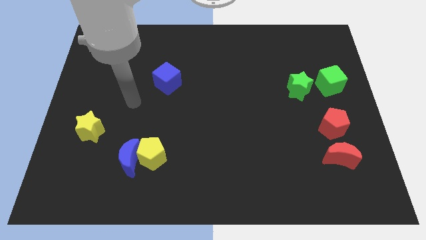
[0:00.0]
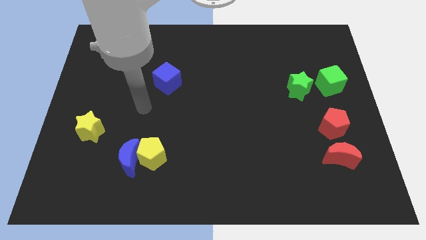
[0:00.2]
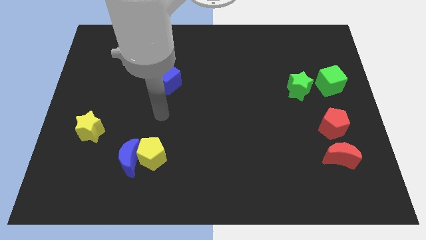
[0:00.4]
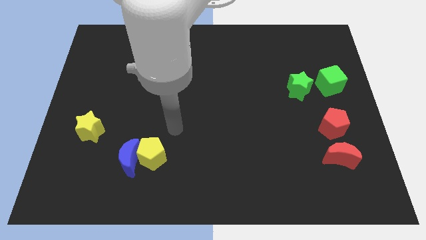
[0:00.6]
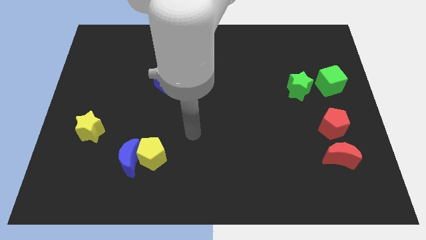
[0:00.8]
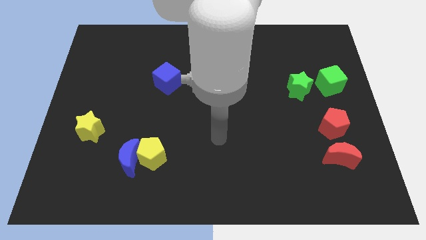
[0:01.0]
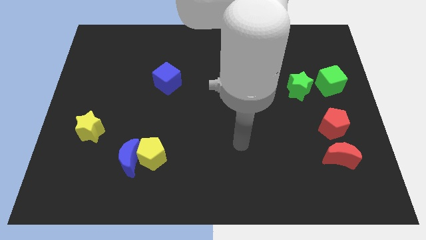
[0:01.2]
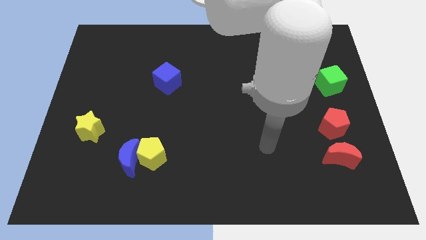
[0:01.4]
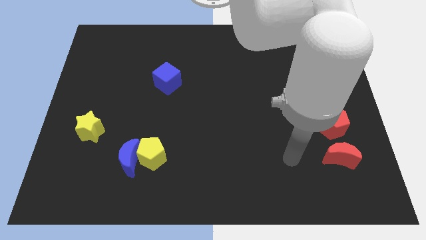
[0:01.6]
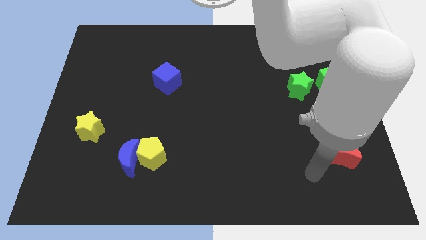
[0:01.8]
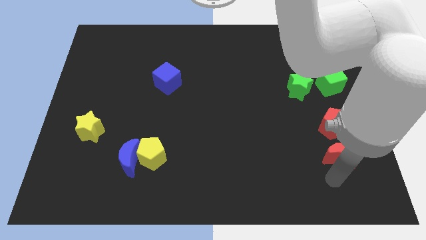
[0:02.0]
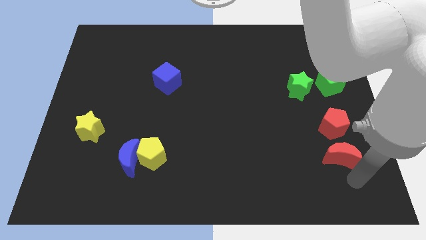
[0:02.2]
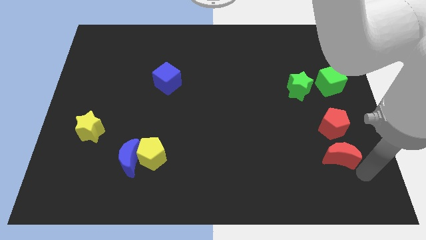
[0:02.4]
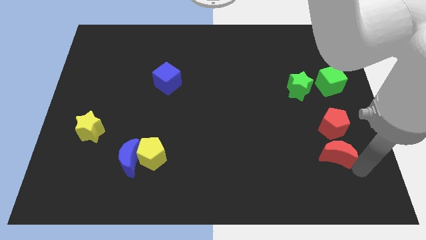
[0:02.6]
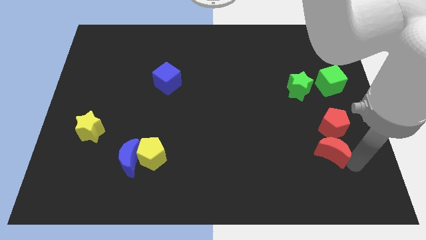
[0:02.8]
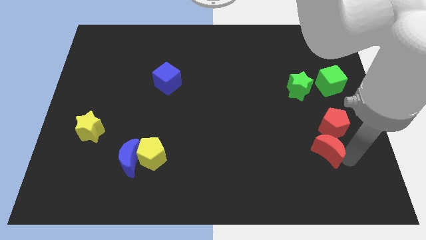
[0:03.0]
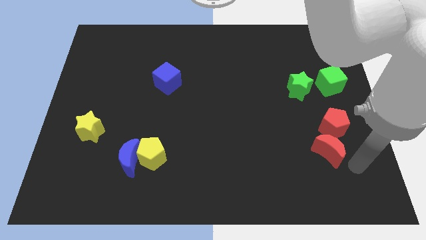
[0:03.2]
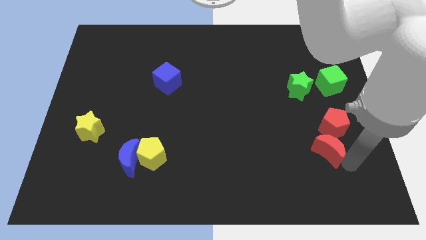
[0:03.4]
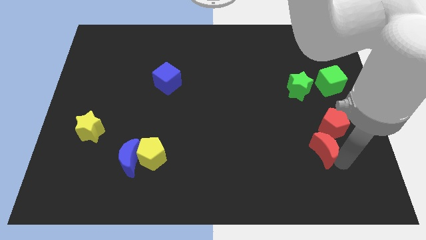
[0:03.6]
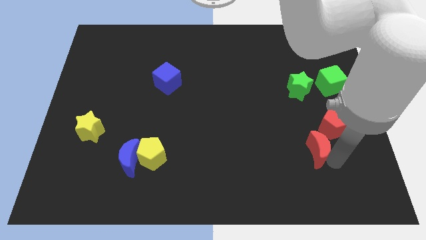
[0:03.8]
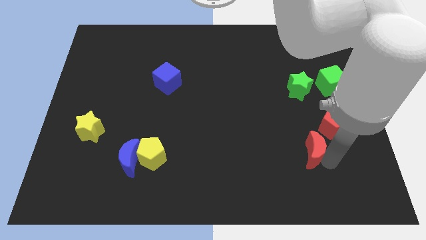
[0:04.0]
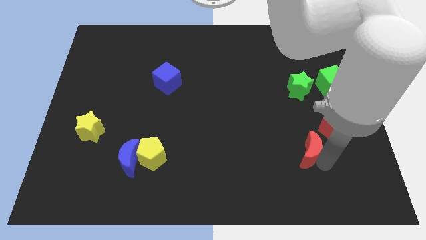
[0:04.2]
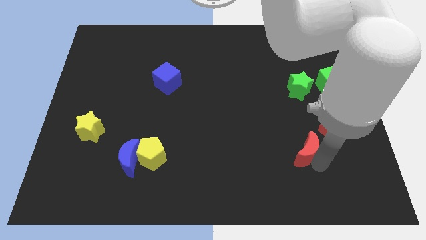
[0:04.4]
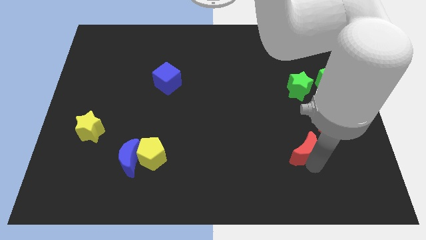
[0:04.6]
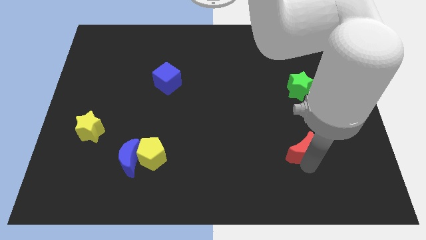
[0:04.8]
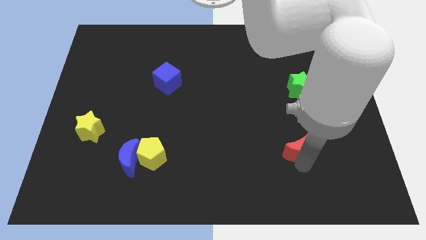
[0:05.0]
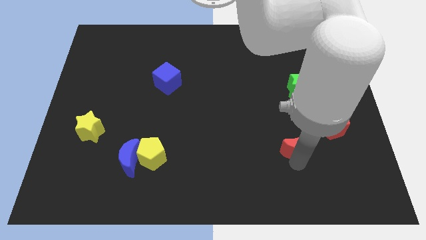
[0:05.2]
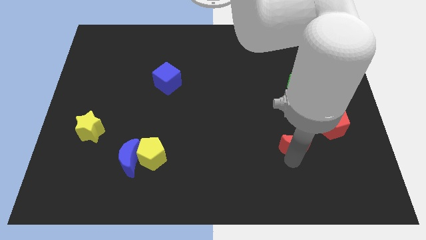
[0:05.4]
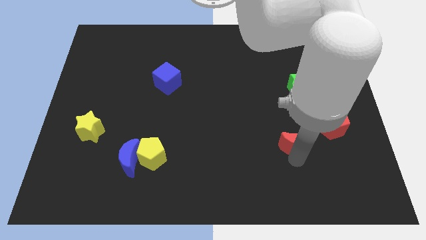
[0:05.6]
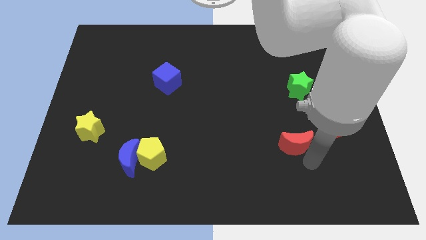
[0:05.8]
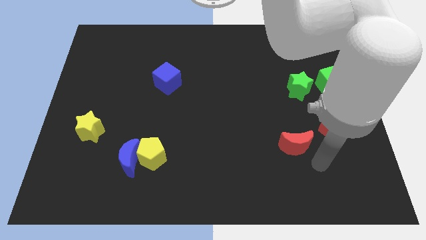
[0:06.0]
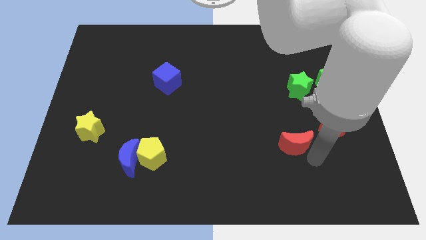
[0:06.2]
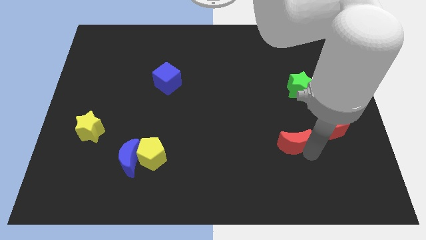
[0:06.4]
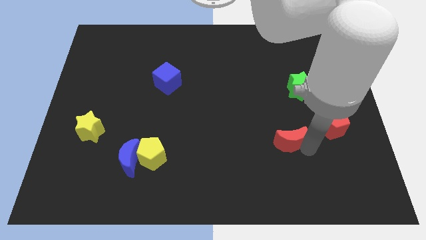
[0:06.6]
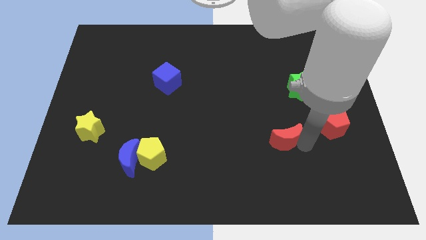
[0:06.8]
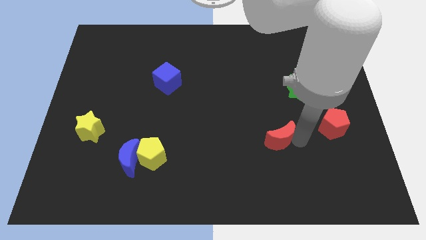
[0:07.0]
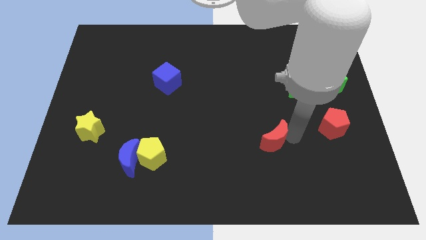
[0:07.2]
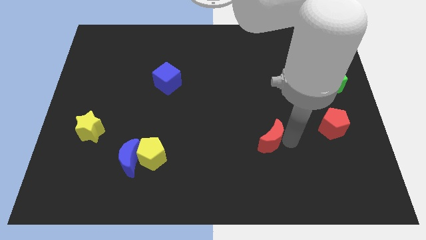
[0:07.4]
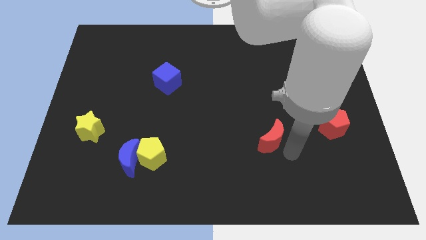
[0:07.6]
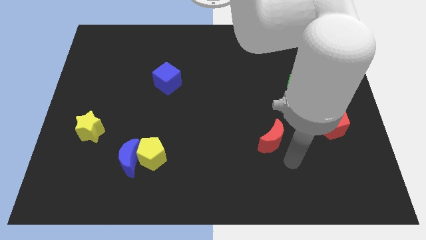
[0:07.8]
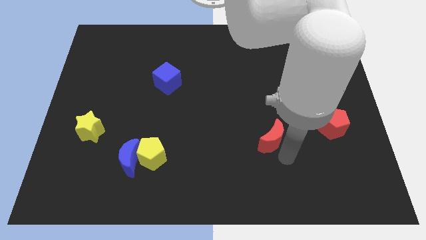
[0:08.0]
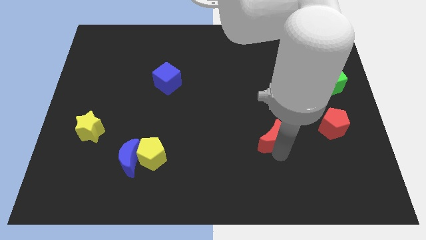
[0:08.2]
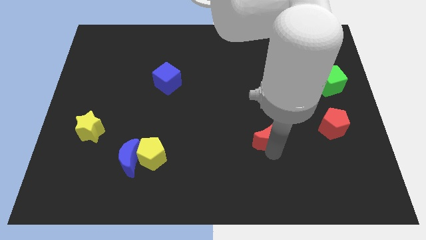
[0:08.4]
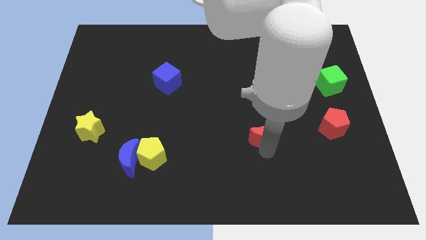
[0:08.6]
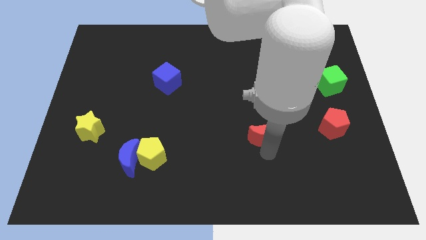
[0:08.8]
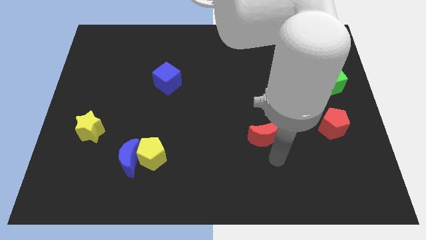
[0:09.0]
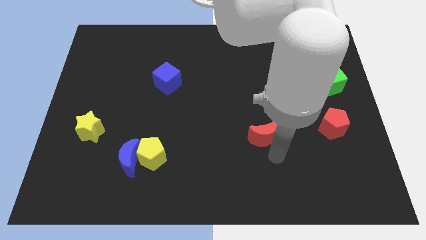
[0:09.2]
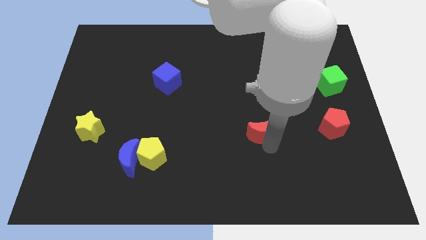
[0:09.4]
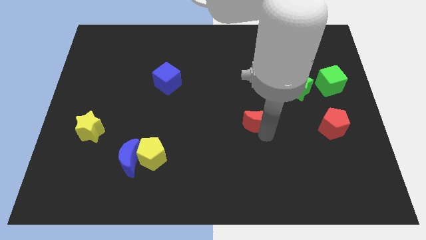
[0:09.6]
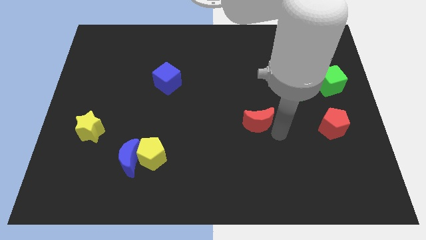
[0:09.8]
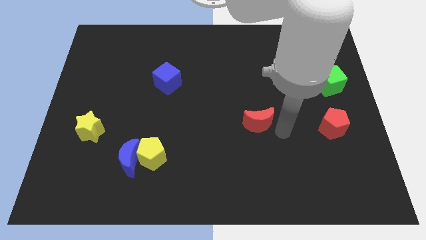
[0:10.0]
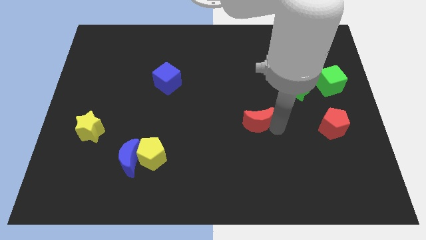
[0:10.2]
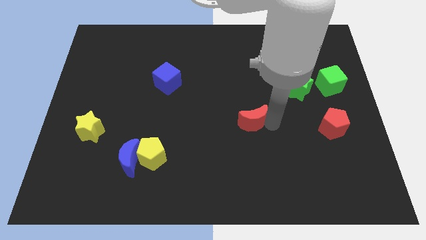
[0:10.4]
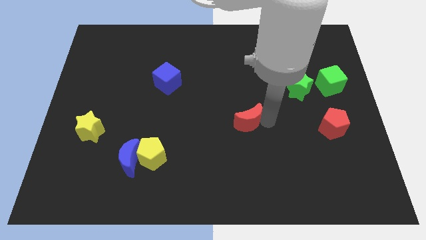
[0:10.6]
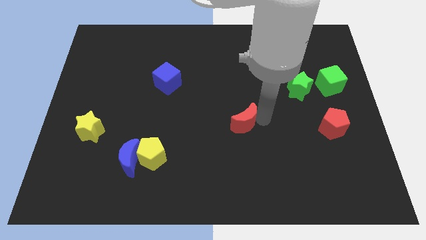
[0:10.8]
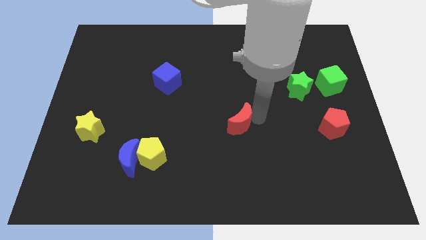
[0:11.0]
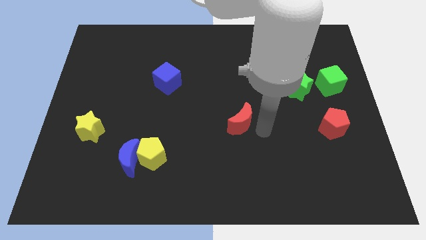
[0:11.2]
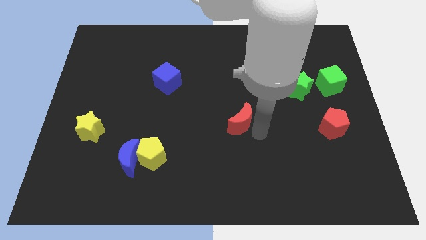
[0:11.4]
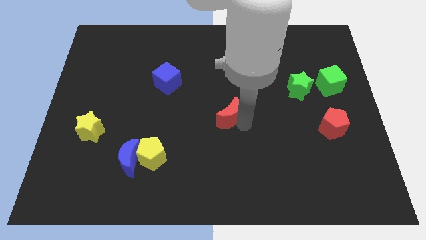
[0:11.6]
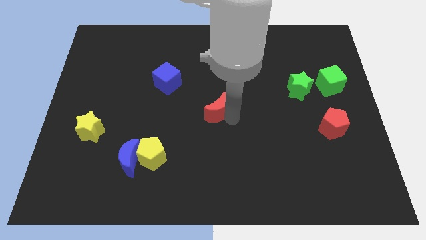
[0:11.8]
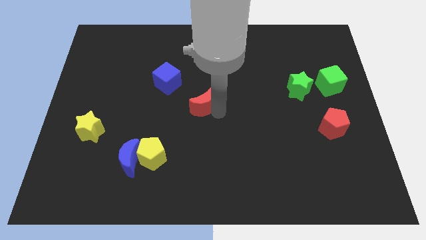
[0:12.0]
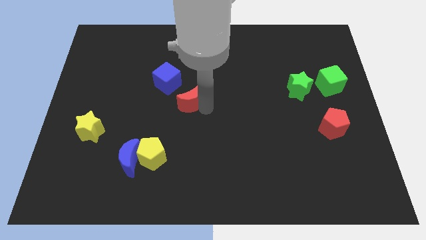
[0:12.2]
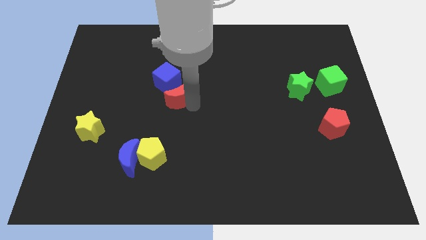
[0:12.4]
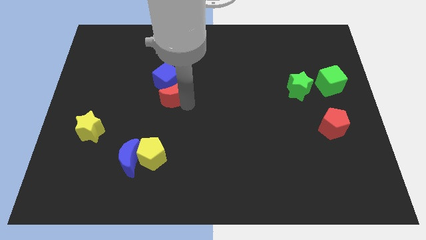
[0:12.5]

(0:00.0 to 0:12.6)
slide the red moon next to the blue cube
